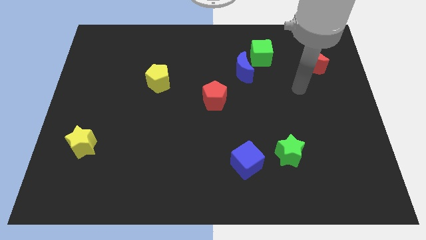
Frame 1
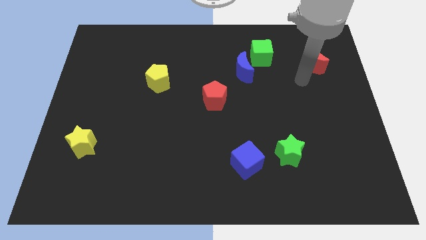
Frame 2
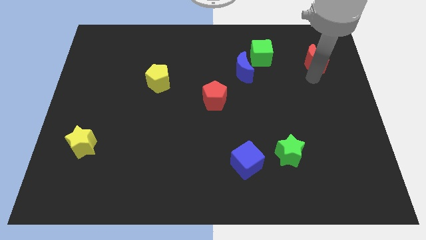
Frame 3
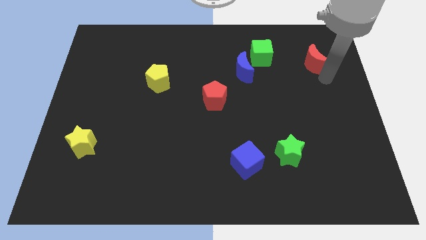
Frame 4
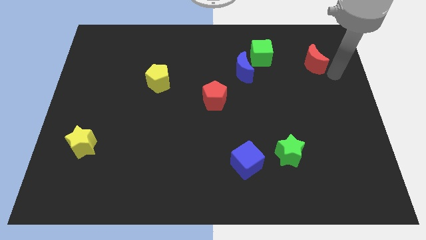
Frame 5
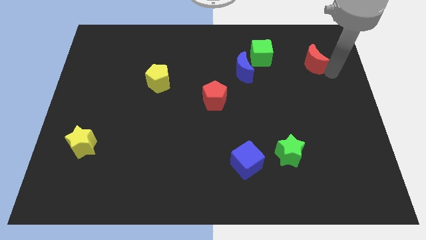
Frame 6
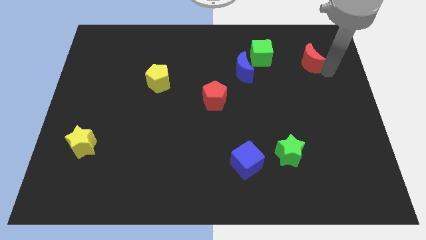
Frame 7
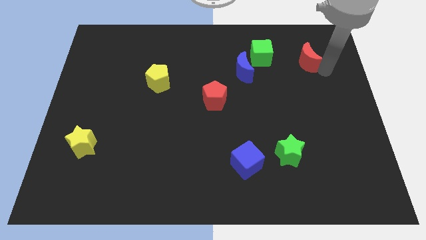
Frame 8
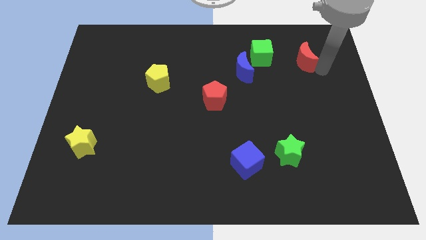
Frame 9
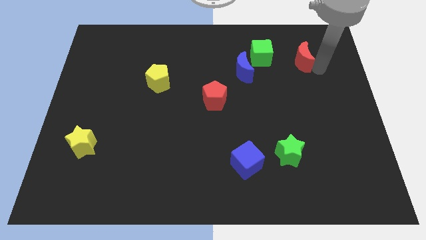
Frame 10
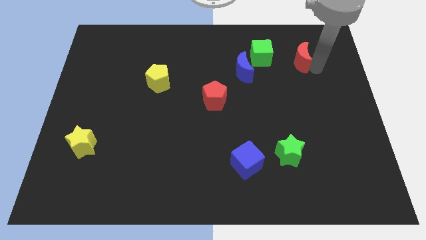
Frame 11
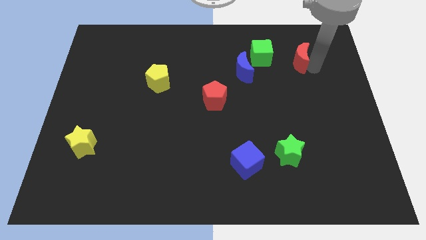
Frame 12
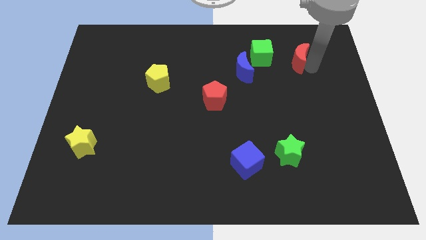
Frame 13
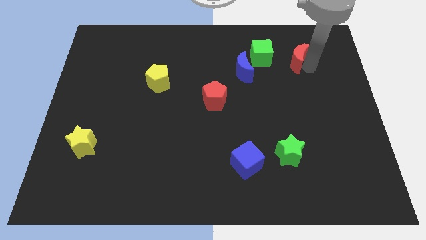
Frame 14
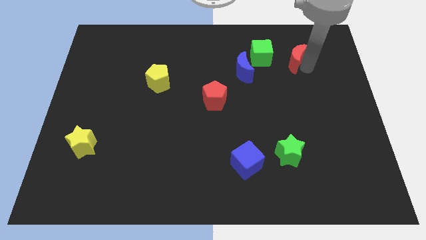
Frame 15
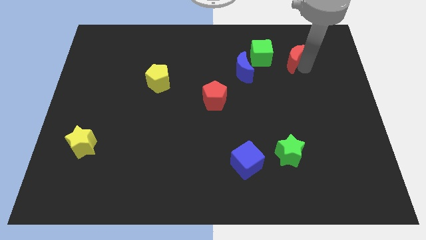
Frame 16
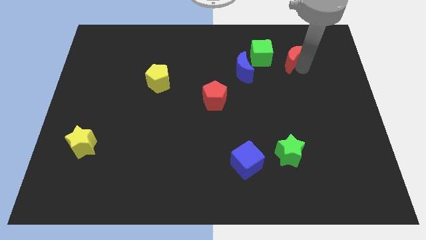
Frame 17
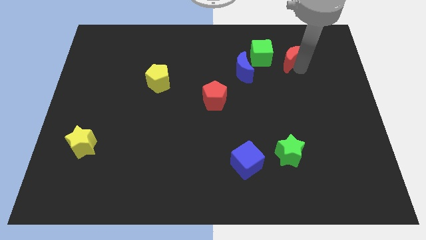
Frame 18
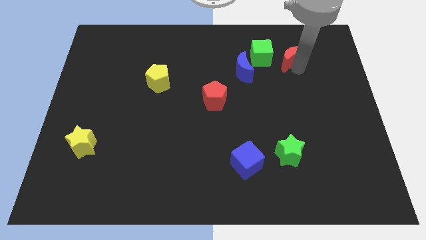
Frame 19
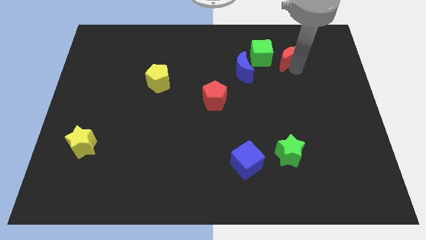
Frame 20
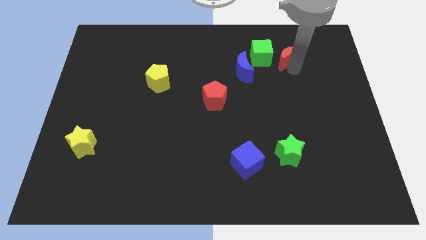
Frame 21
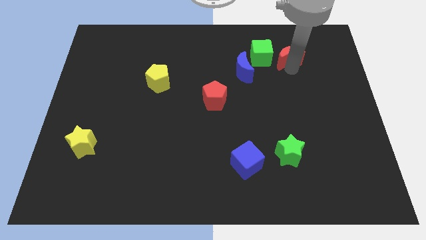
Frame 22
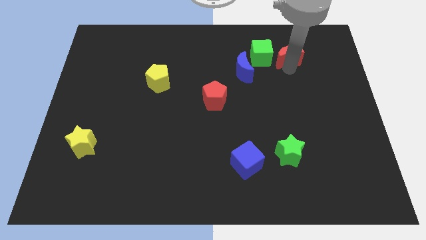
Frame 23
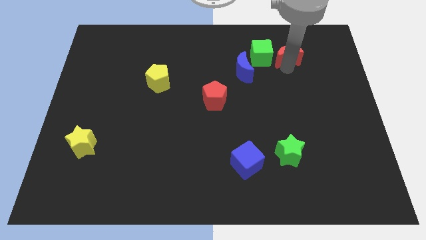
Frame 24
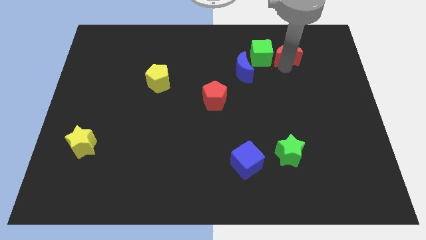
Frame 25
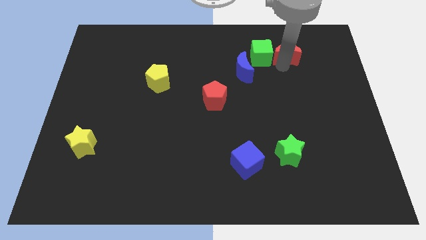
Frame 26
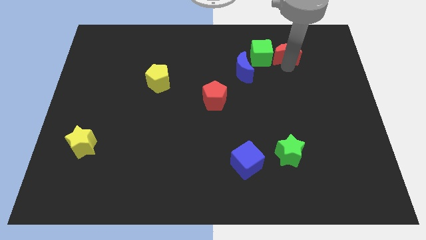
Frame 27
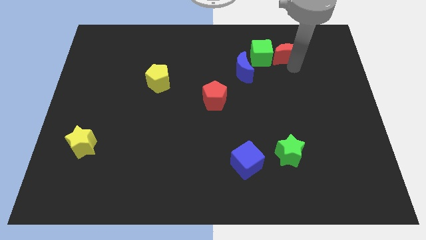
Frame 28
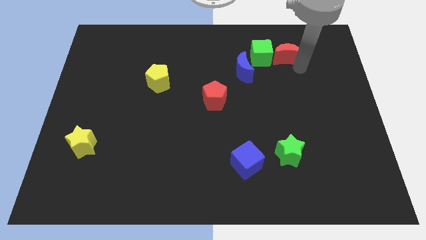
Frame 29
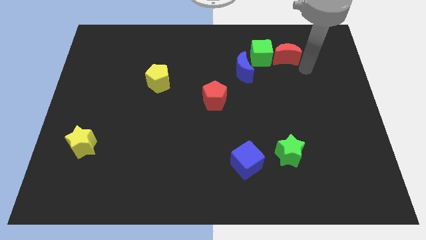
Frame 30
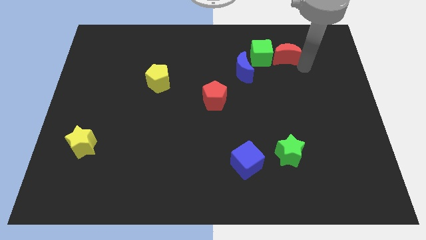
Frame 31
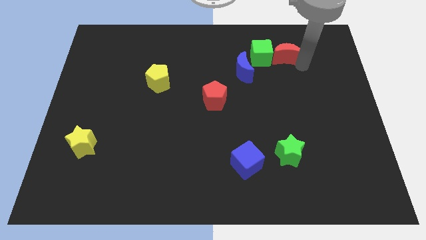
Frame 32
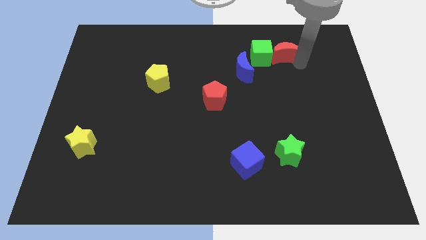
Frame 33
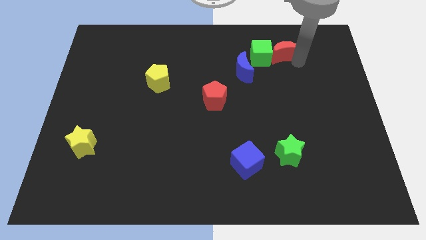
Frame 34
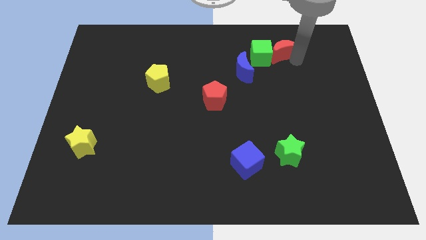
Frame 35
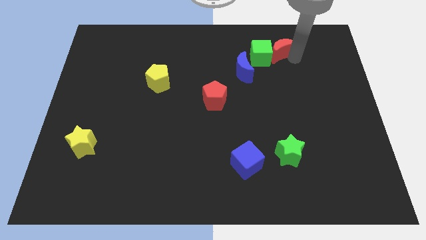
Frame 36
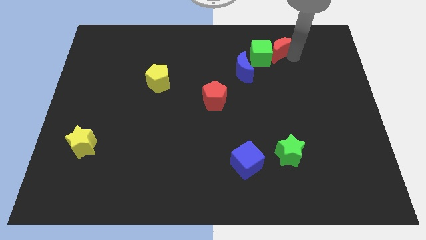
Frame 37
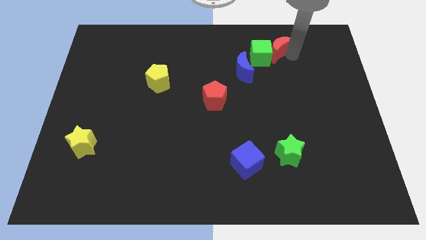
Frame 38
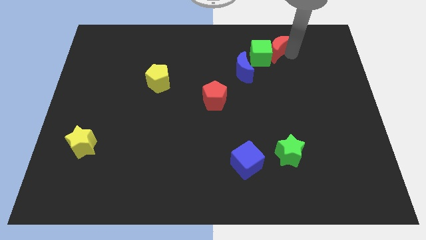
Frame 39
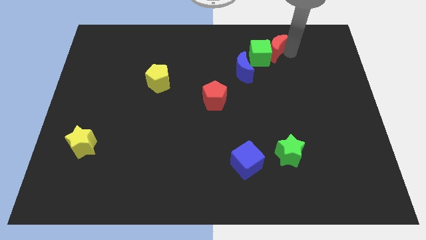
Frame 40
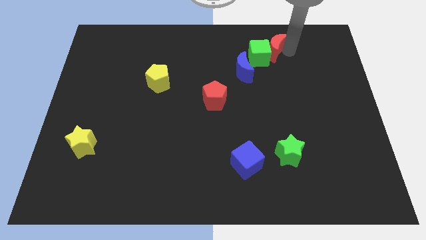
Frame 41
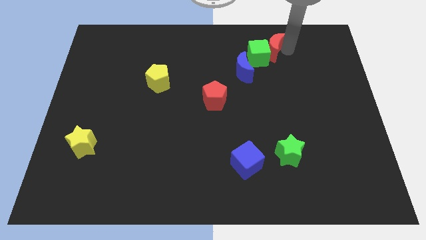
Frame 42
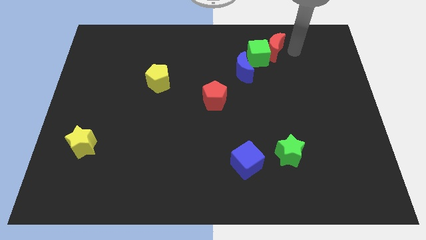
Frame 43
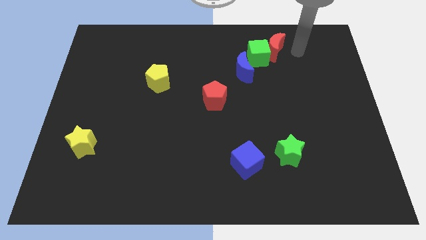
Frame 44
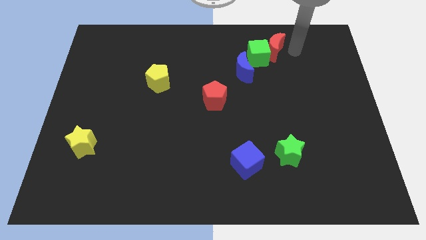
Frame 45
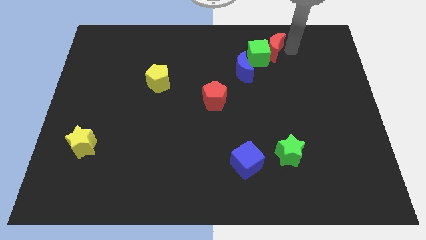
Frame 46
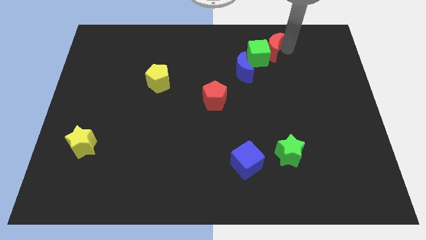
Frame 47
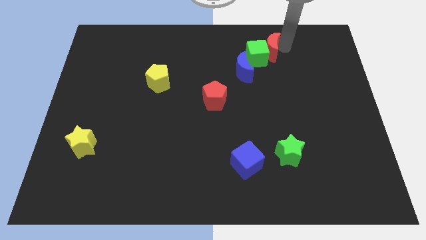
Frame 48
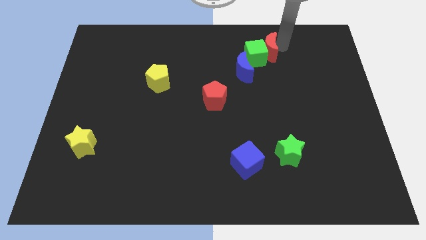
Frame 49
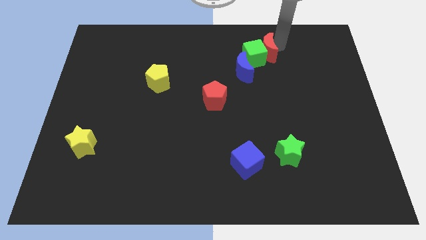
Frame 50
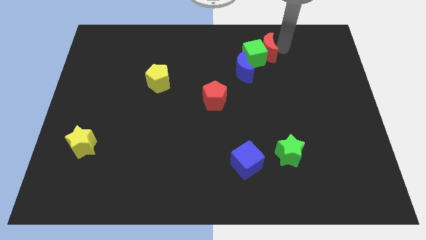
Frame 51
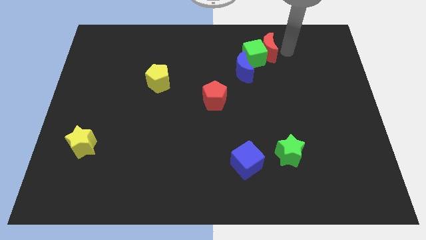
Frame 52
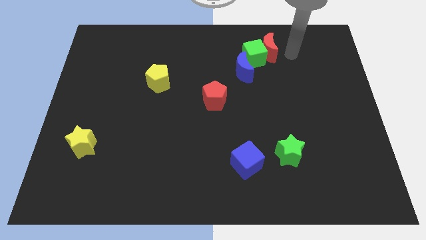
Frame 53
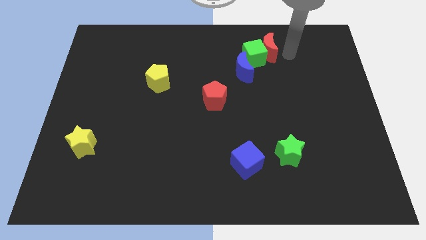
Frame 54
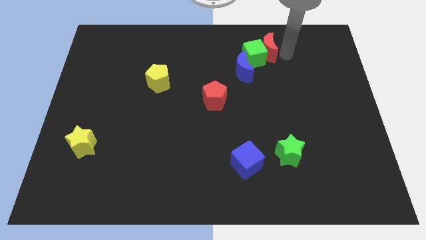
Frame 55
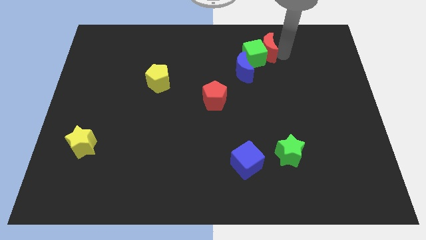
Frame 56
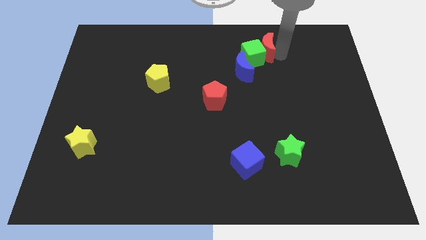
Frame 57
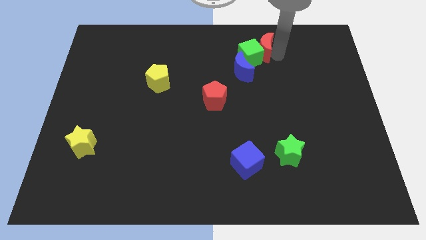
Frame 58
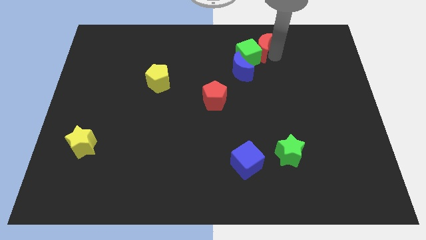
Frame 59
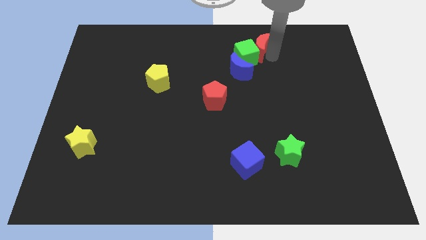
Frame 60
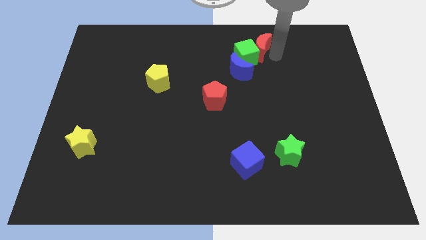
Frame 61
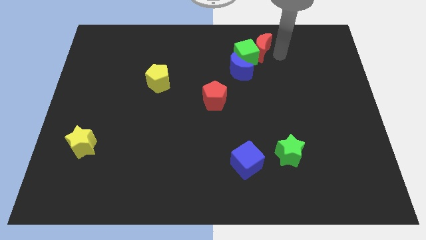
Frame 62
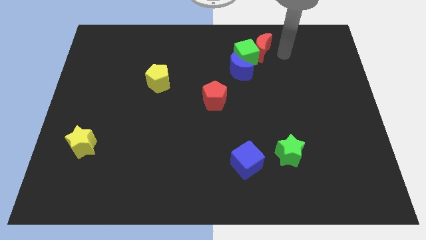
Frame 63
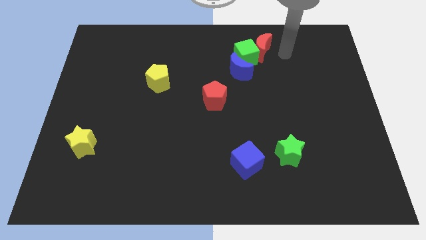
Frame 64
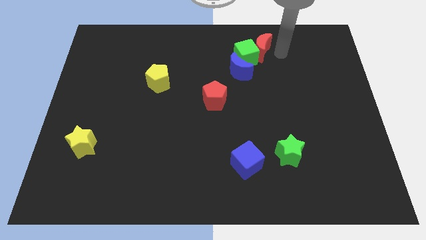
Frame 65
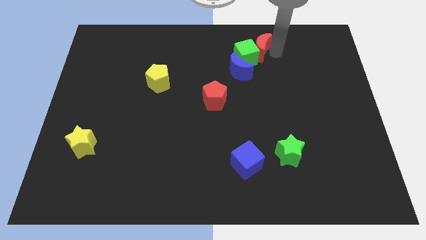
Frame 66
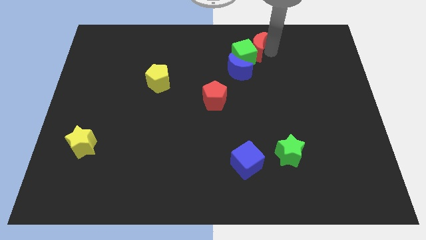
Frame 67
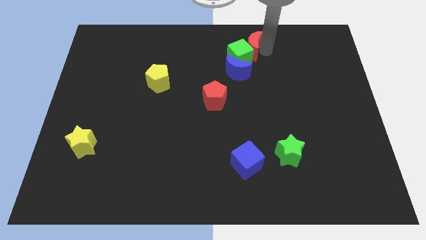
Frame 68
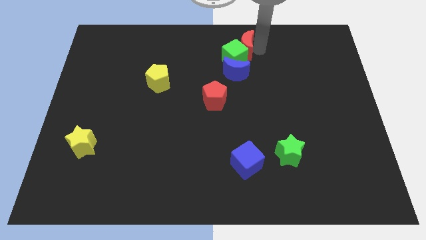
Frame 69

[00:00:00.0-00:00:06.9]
put the red moon to the top

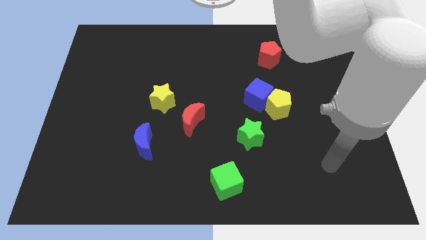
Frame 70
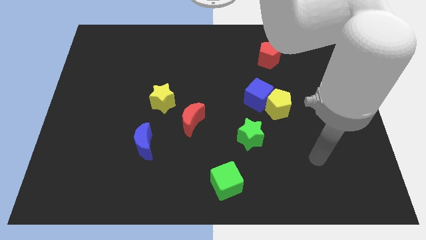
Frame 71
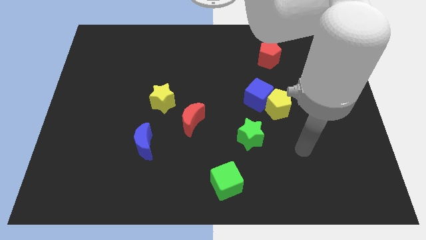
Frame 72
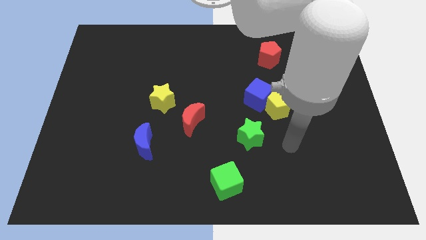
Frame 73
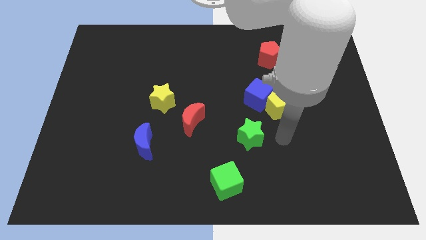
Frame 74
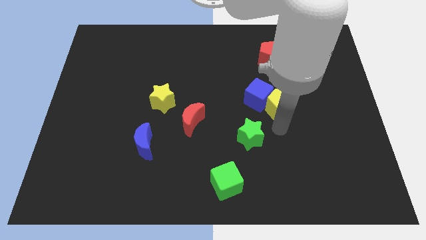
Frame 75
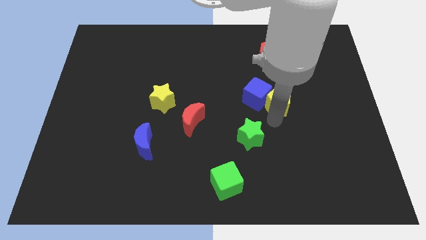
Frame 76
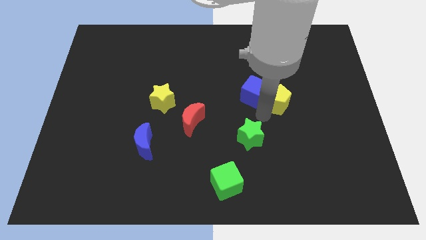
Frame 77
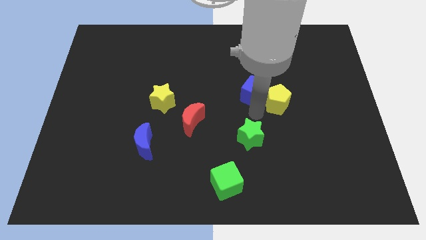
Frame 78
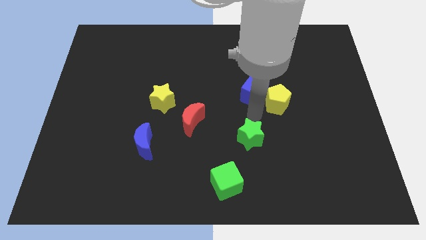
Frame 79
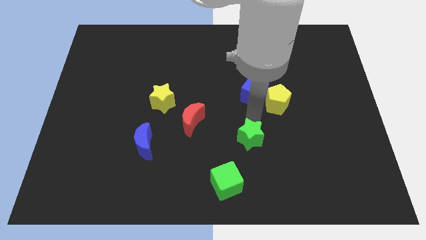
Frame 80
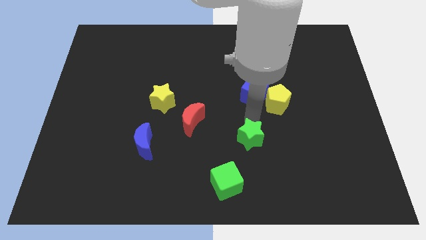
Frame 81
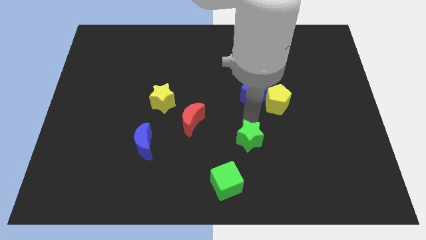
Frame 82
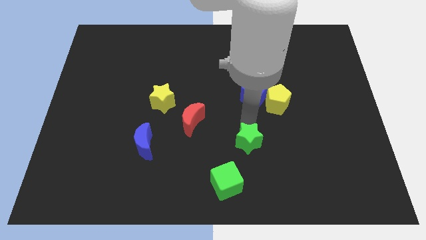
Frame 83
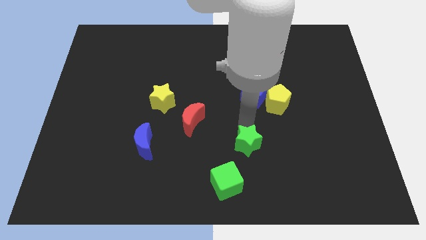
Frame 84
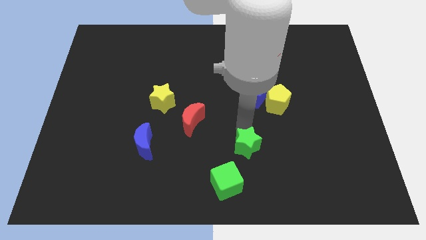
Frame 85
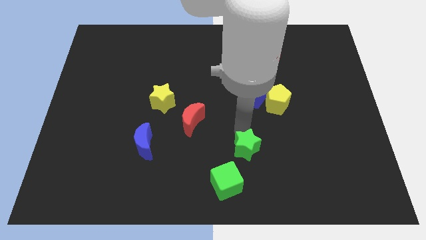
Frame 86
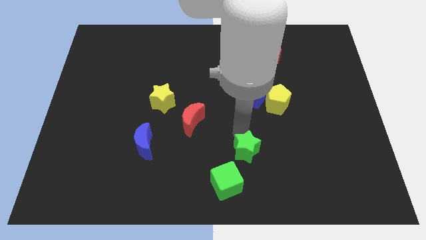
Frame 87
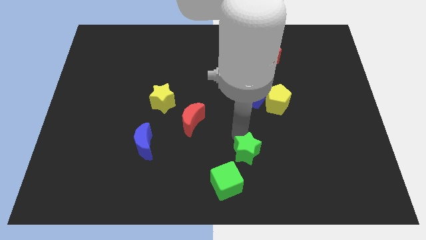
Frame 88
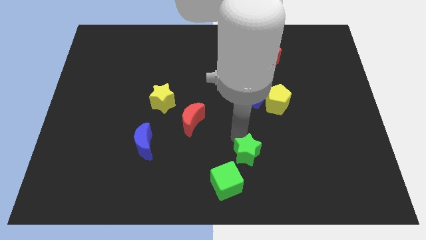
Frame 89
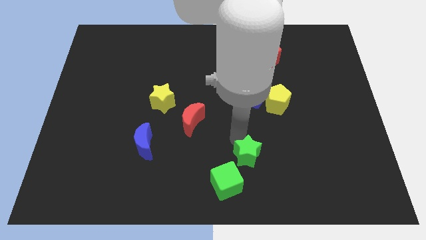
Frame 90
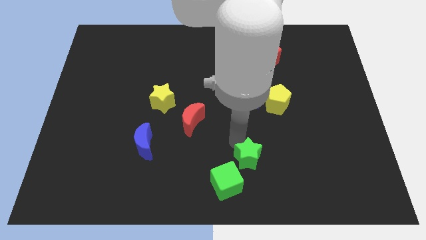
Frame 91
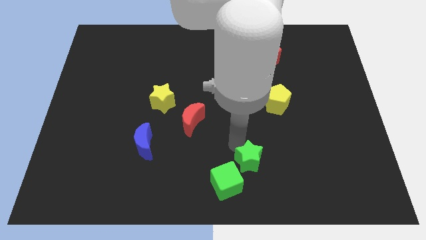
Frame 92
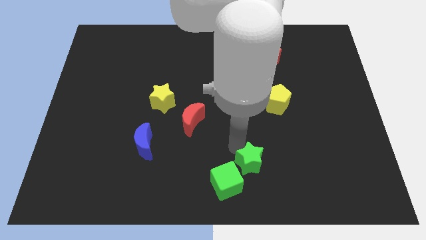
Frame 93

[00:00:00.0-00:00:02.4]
put the green star to the bottom
